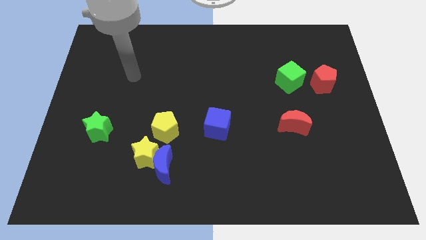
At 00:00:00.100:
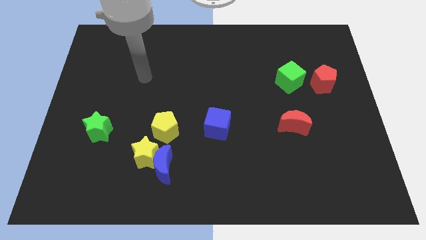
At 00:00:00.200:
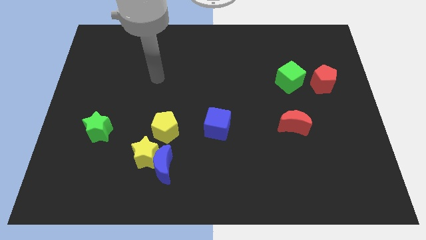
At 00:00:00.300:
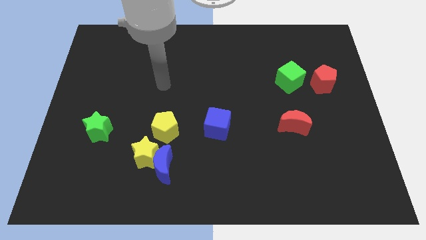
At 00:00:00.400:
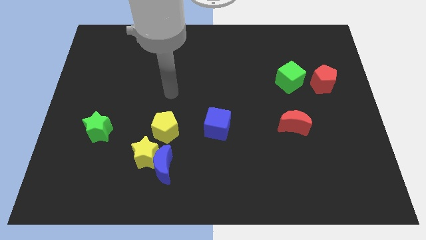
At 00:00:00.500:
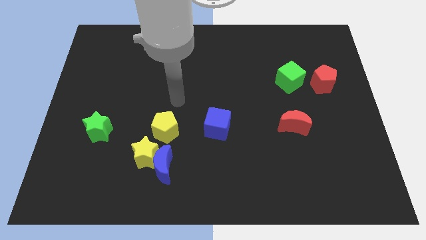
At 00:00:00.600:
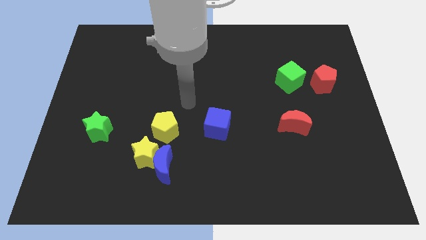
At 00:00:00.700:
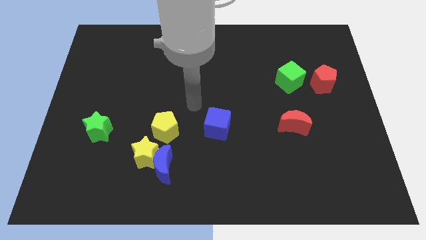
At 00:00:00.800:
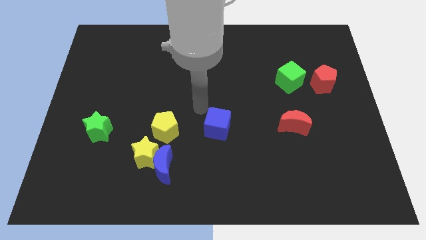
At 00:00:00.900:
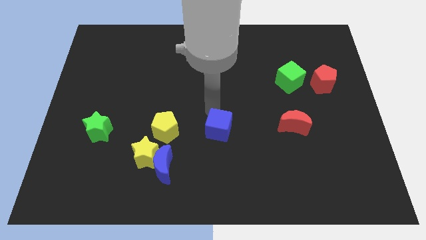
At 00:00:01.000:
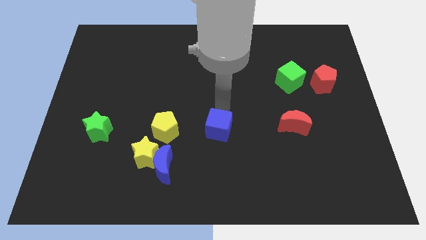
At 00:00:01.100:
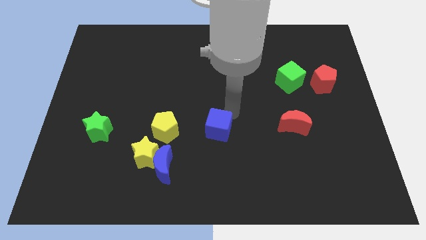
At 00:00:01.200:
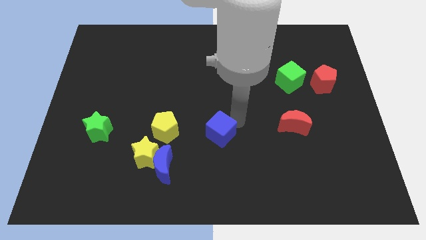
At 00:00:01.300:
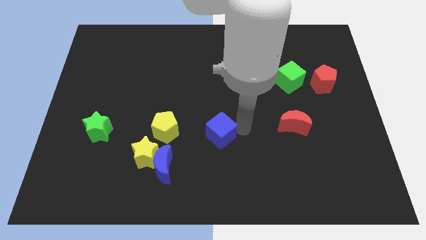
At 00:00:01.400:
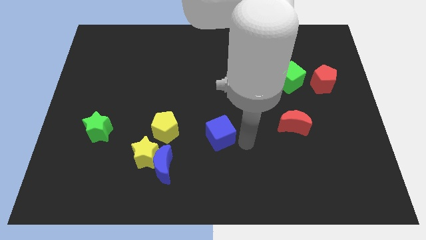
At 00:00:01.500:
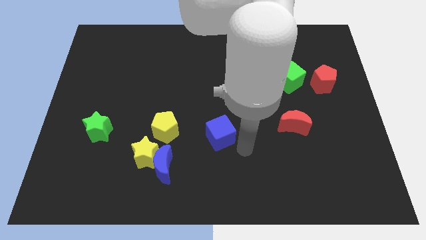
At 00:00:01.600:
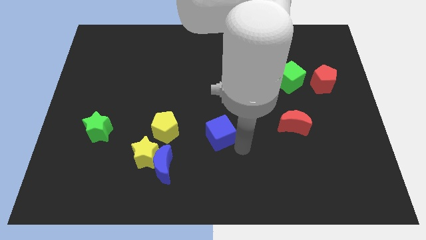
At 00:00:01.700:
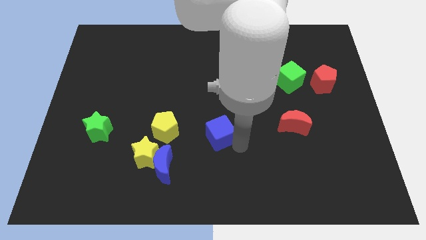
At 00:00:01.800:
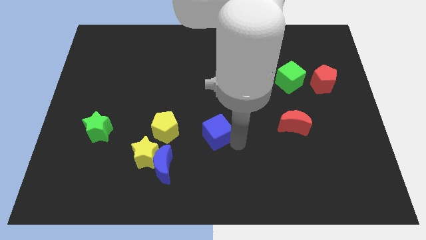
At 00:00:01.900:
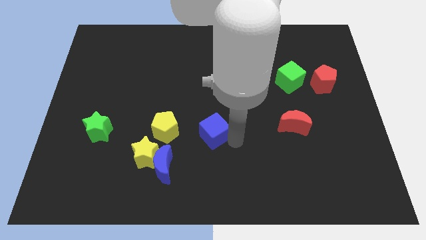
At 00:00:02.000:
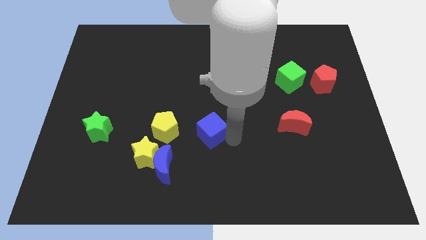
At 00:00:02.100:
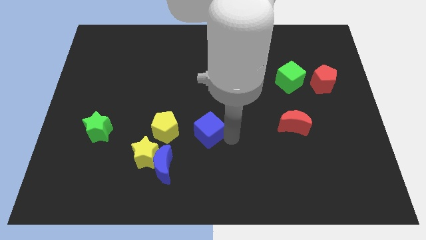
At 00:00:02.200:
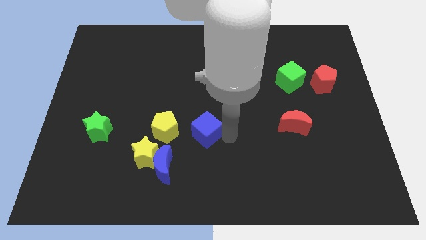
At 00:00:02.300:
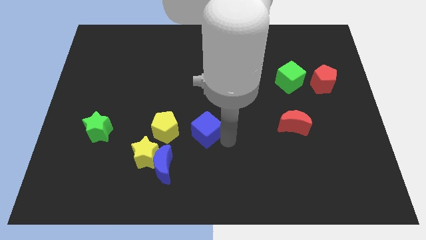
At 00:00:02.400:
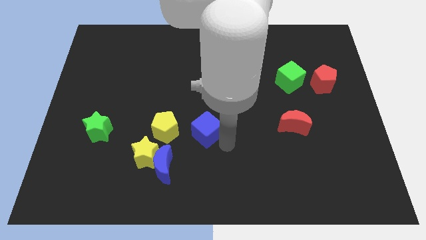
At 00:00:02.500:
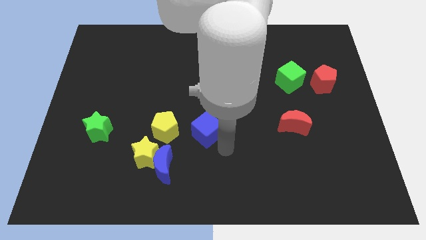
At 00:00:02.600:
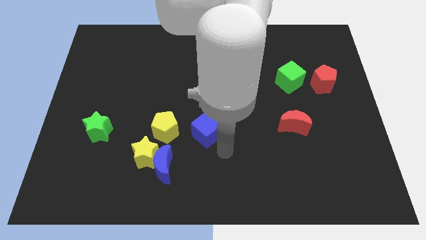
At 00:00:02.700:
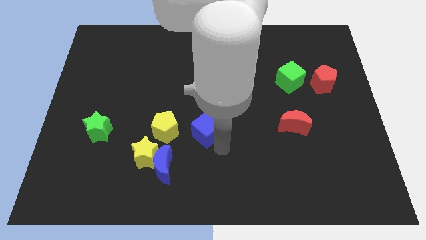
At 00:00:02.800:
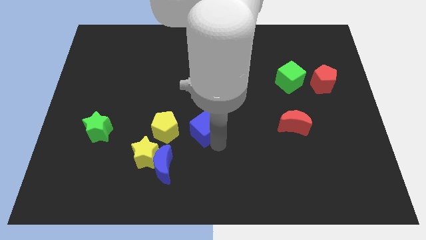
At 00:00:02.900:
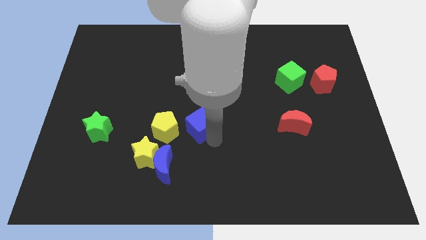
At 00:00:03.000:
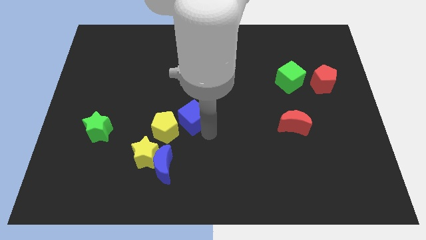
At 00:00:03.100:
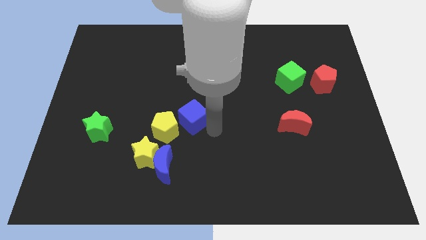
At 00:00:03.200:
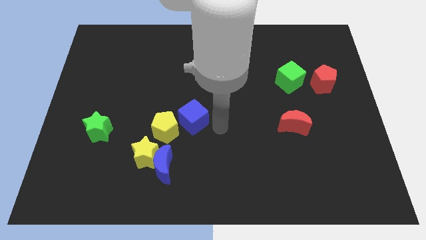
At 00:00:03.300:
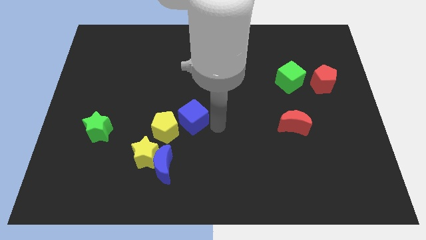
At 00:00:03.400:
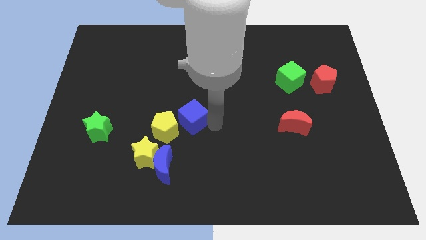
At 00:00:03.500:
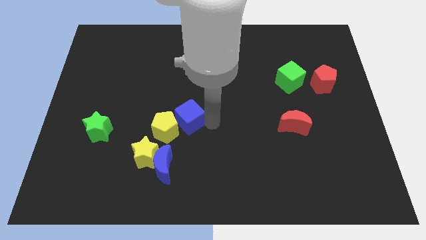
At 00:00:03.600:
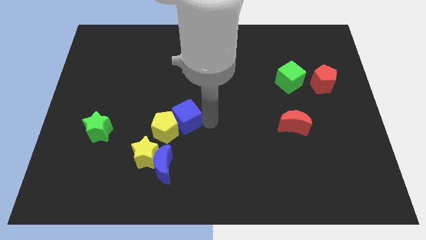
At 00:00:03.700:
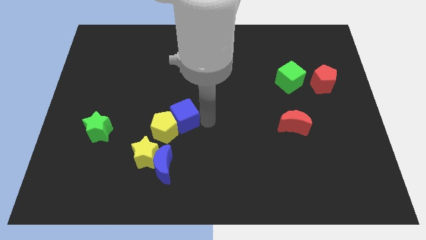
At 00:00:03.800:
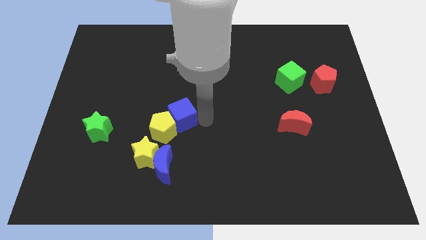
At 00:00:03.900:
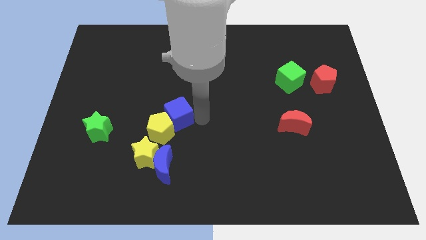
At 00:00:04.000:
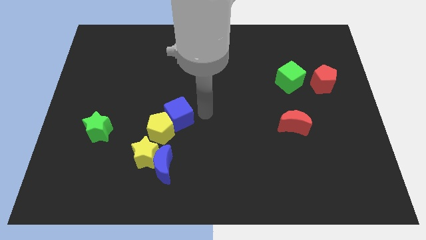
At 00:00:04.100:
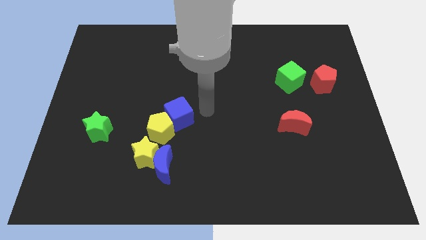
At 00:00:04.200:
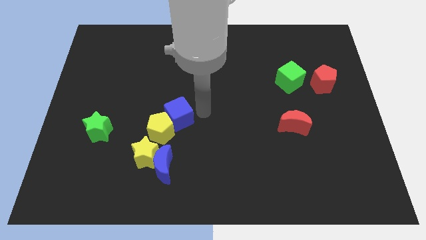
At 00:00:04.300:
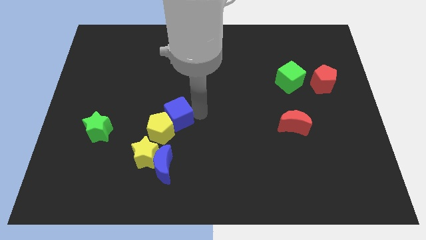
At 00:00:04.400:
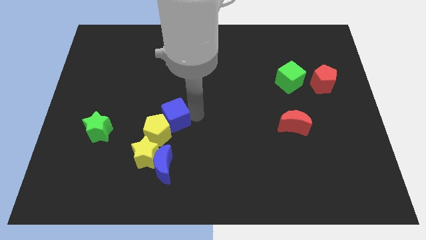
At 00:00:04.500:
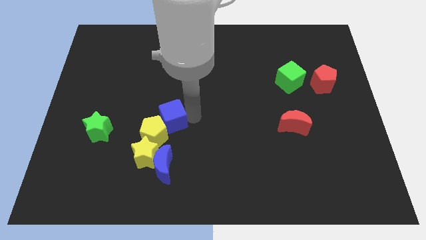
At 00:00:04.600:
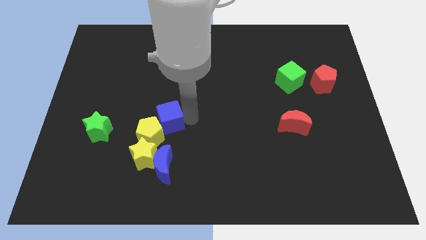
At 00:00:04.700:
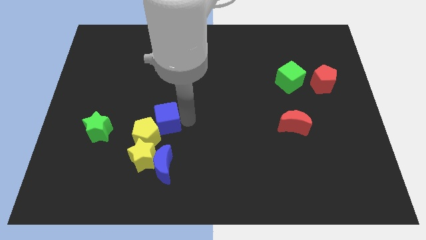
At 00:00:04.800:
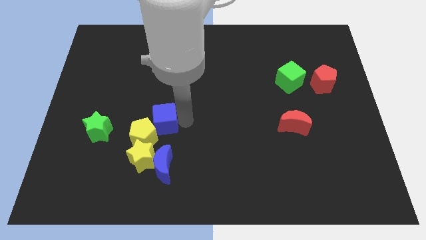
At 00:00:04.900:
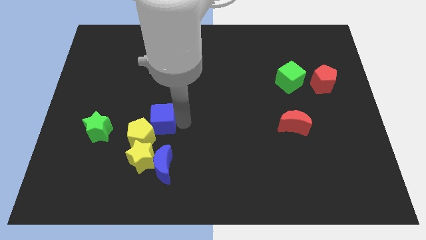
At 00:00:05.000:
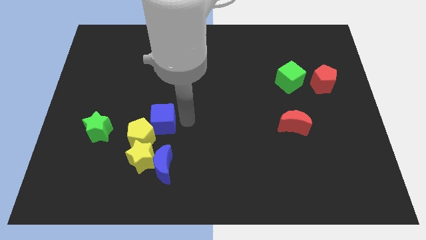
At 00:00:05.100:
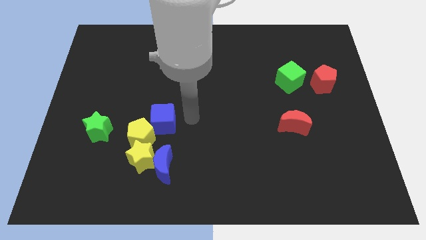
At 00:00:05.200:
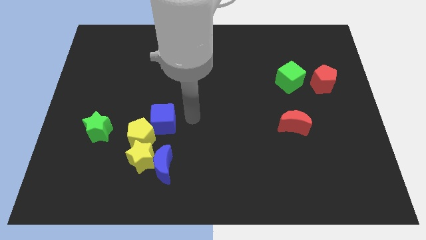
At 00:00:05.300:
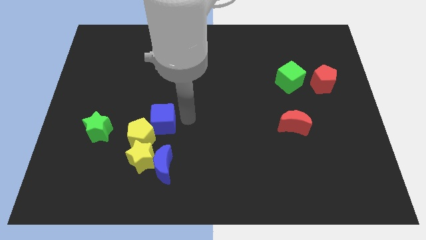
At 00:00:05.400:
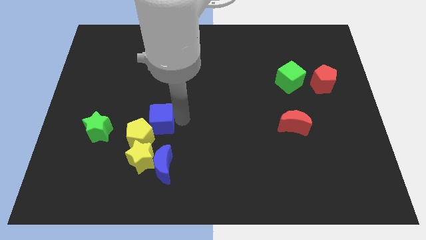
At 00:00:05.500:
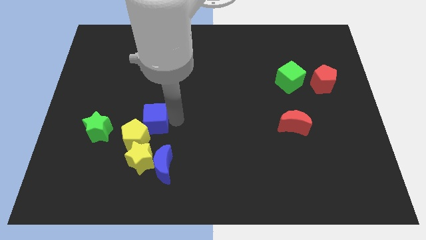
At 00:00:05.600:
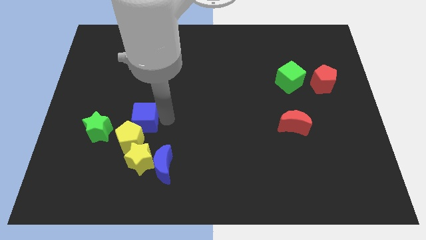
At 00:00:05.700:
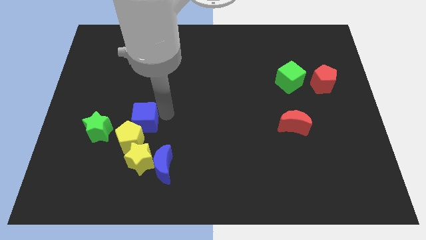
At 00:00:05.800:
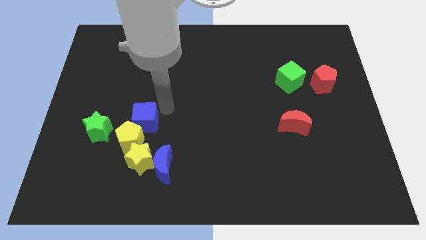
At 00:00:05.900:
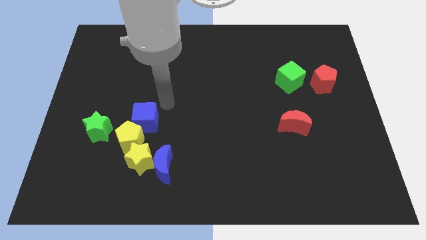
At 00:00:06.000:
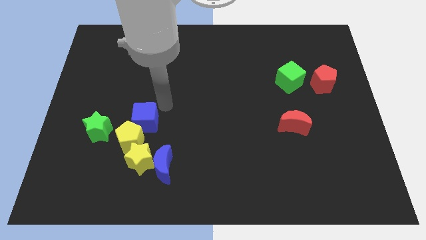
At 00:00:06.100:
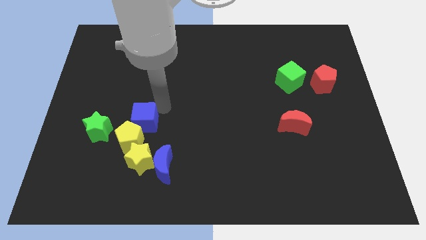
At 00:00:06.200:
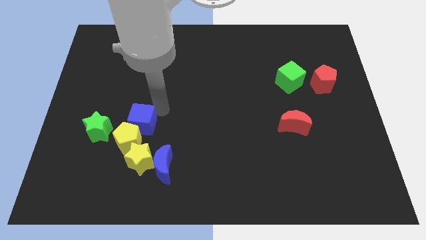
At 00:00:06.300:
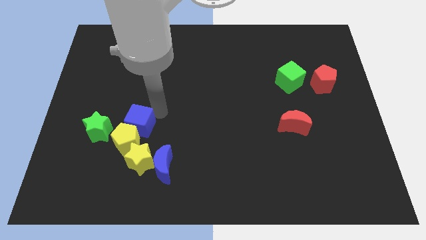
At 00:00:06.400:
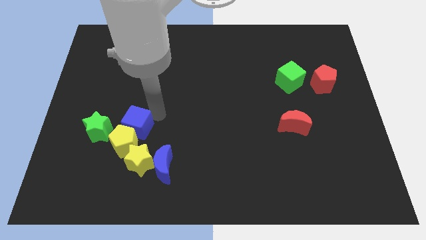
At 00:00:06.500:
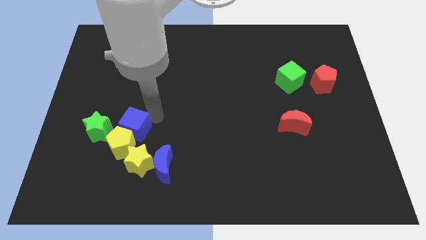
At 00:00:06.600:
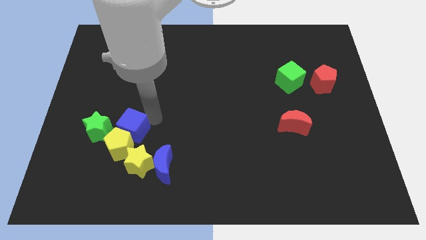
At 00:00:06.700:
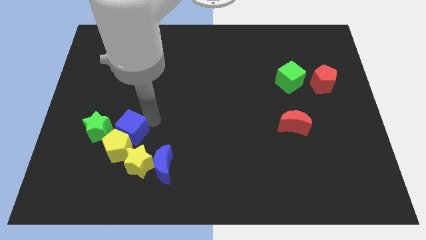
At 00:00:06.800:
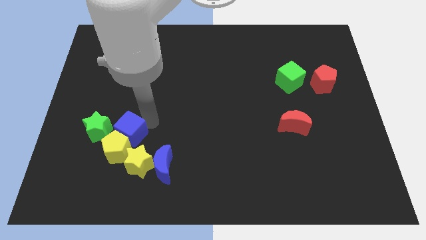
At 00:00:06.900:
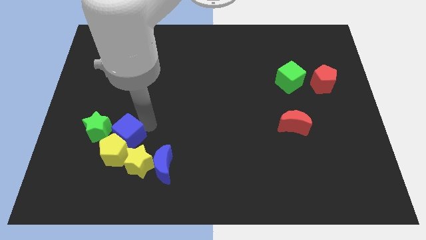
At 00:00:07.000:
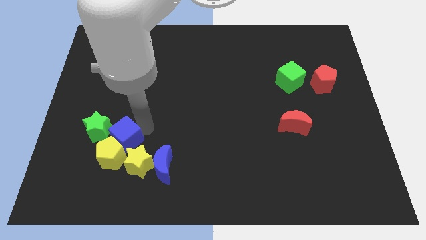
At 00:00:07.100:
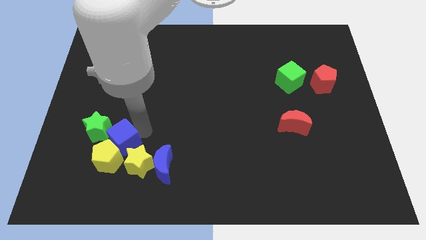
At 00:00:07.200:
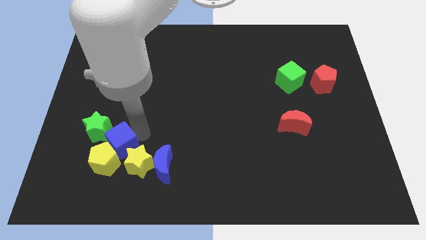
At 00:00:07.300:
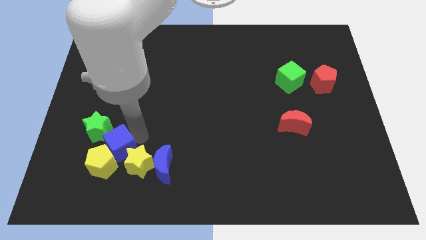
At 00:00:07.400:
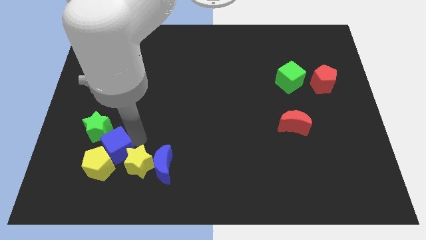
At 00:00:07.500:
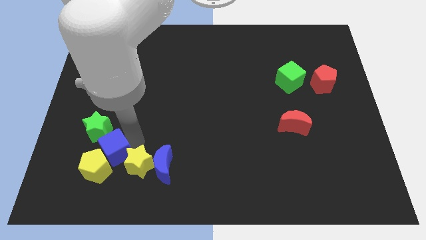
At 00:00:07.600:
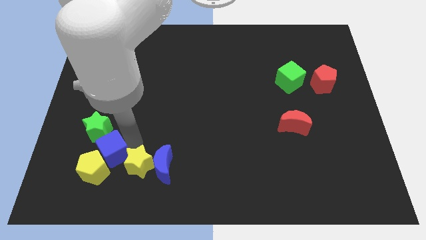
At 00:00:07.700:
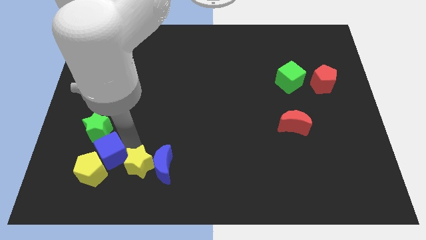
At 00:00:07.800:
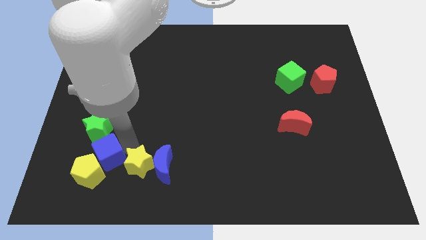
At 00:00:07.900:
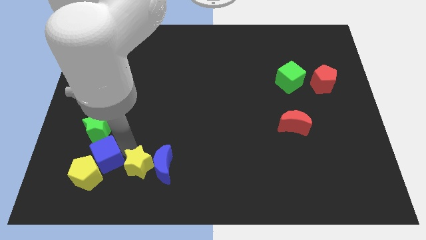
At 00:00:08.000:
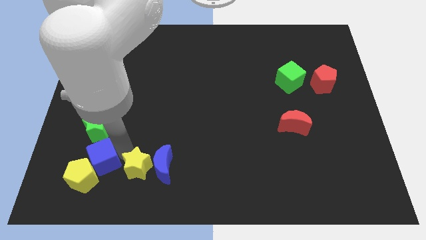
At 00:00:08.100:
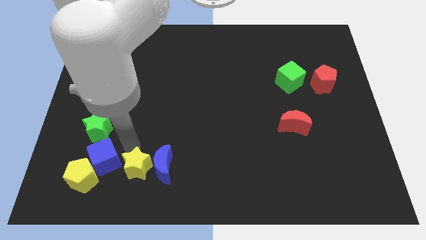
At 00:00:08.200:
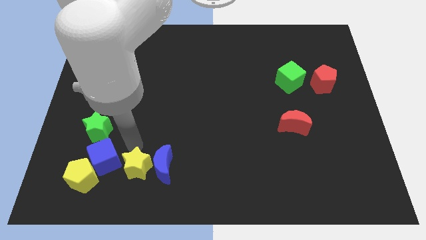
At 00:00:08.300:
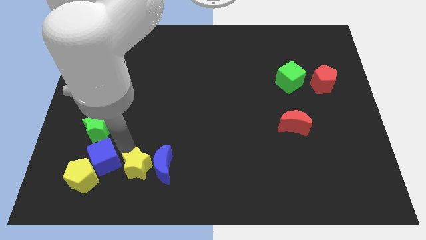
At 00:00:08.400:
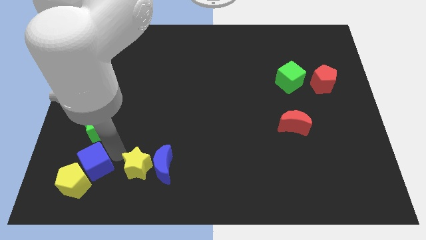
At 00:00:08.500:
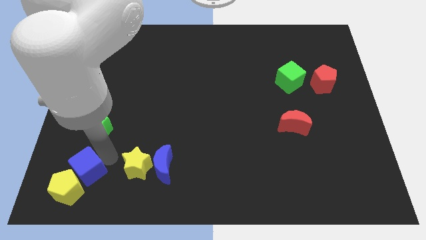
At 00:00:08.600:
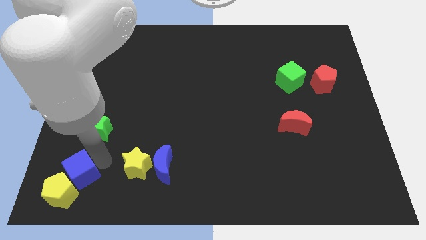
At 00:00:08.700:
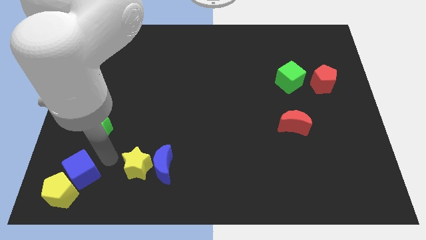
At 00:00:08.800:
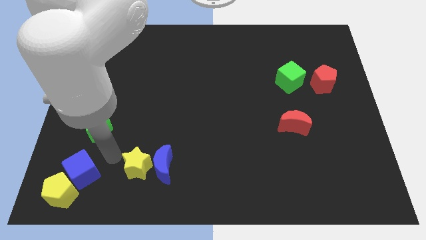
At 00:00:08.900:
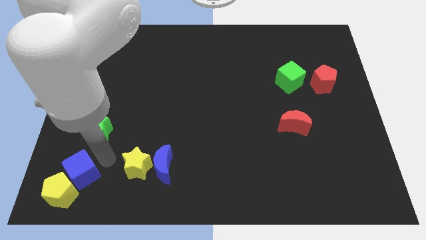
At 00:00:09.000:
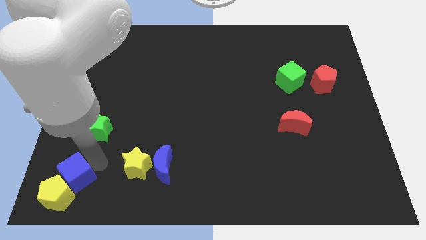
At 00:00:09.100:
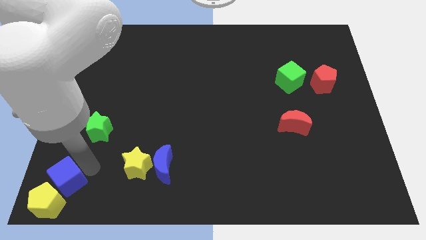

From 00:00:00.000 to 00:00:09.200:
push the blue cube to the bottom left
